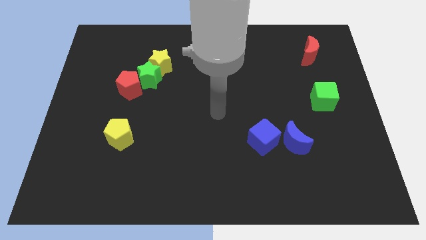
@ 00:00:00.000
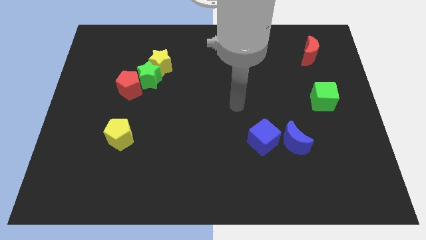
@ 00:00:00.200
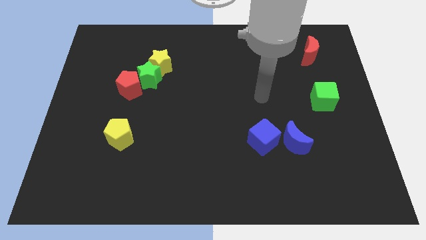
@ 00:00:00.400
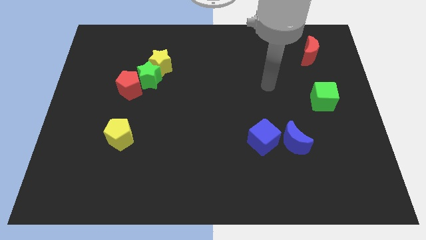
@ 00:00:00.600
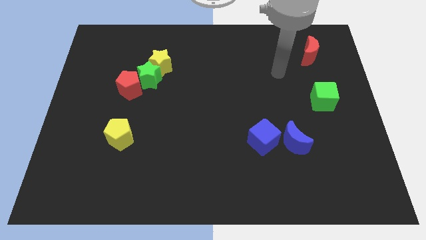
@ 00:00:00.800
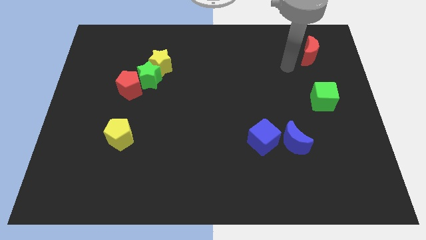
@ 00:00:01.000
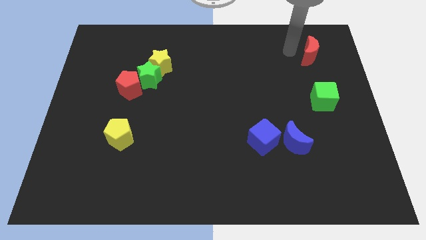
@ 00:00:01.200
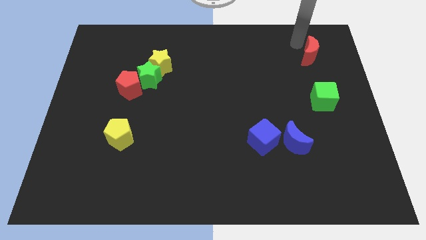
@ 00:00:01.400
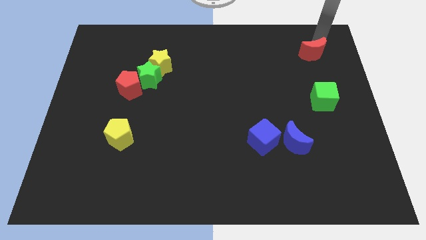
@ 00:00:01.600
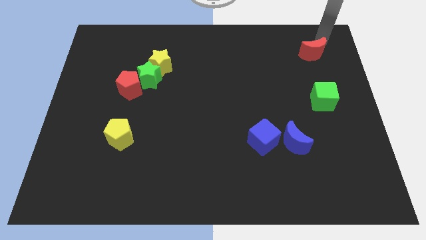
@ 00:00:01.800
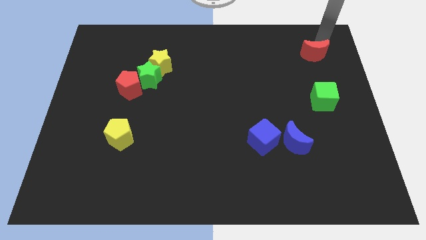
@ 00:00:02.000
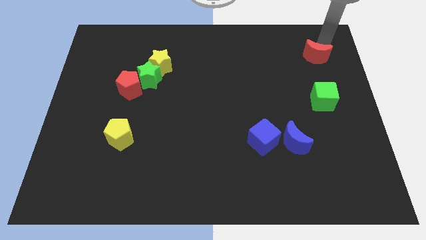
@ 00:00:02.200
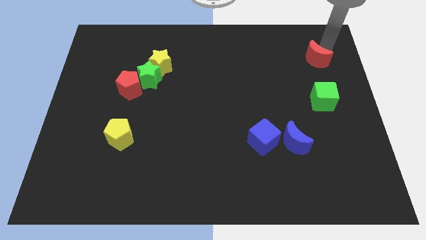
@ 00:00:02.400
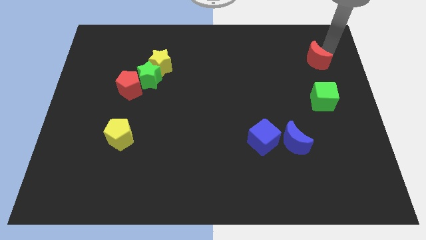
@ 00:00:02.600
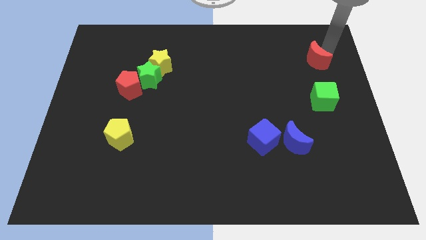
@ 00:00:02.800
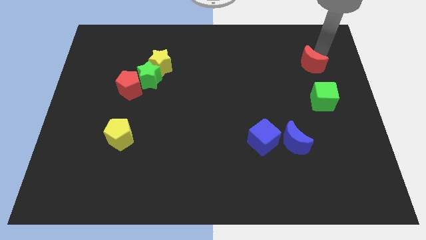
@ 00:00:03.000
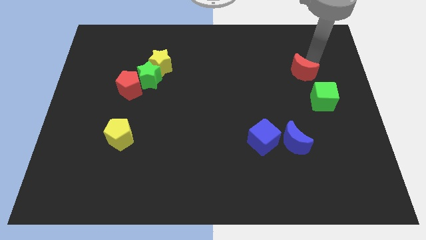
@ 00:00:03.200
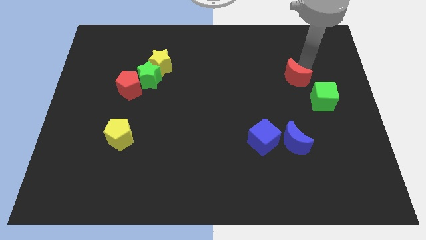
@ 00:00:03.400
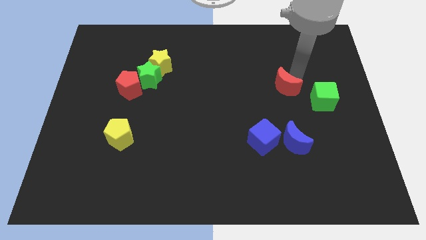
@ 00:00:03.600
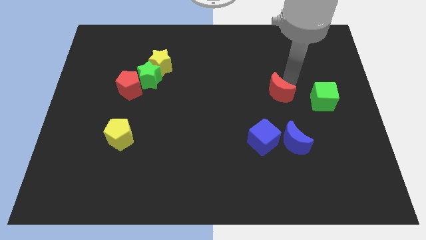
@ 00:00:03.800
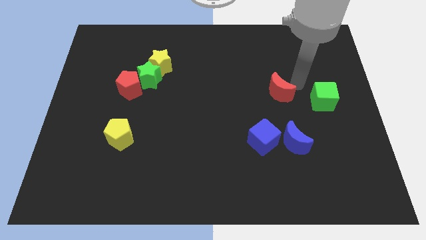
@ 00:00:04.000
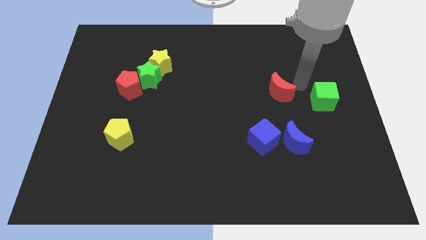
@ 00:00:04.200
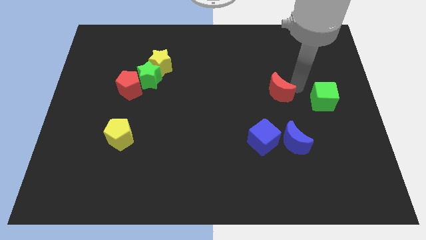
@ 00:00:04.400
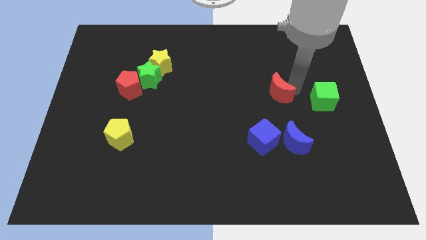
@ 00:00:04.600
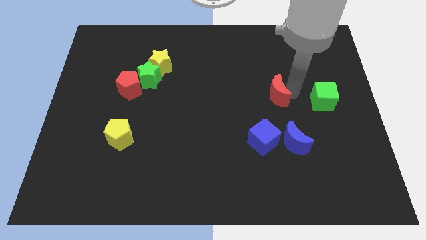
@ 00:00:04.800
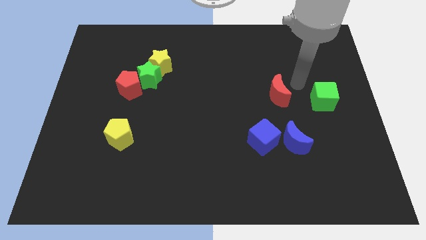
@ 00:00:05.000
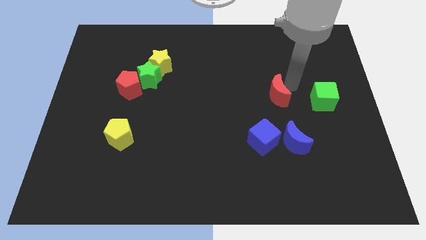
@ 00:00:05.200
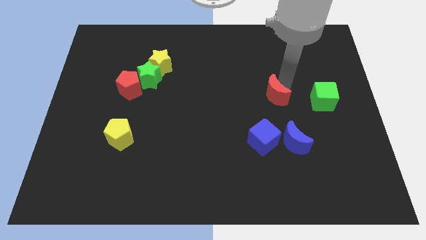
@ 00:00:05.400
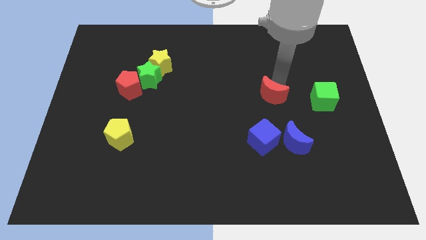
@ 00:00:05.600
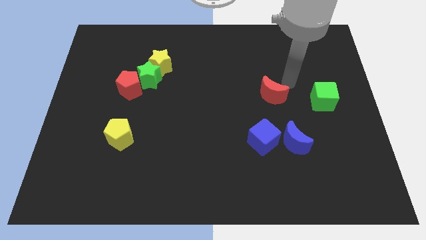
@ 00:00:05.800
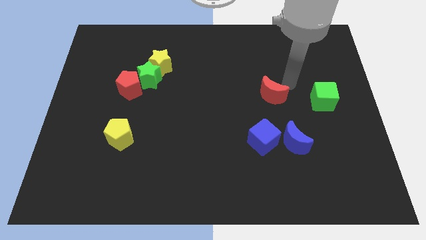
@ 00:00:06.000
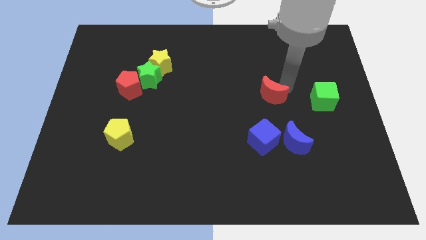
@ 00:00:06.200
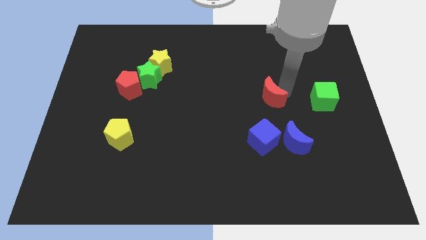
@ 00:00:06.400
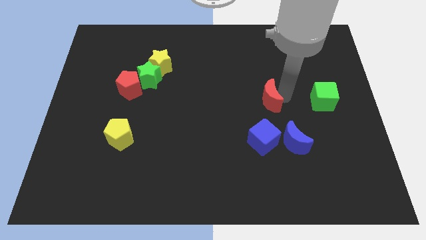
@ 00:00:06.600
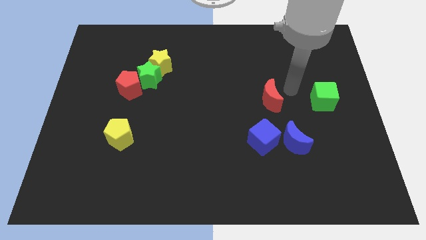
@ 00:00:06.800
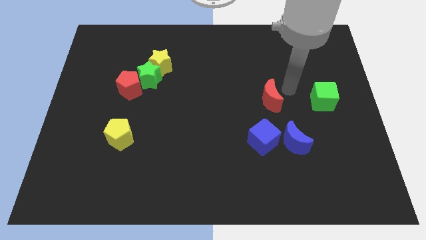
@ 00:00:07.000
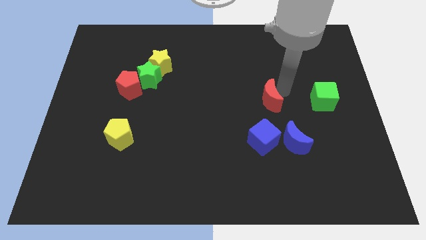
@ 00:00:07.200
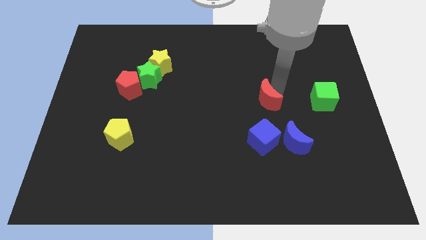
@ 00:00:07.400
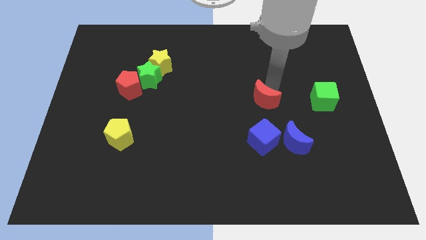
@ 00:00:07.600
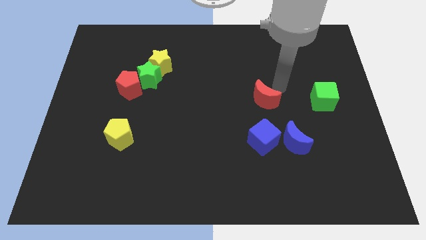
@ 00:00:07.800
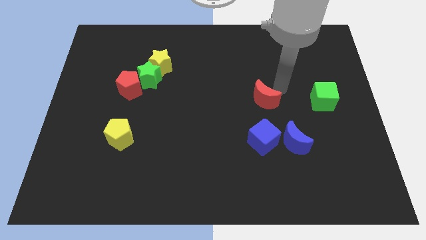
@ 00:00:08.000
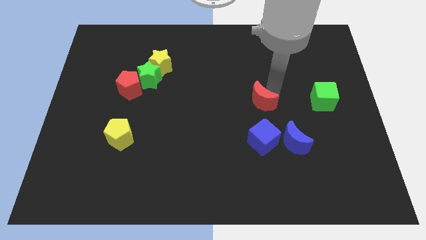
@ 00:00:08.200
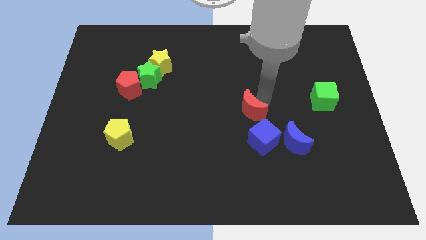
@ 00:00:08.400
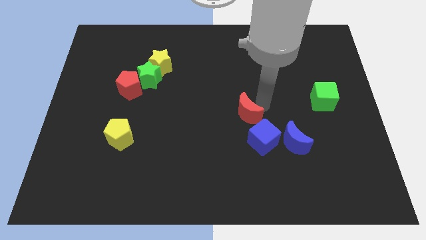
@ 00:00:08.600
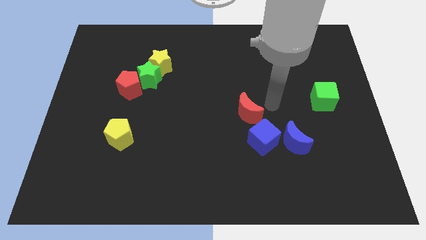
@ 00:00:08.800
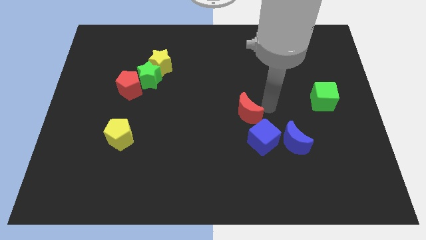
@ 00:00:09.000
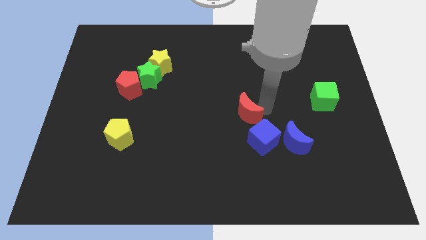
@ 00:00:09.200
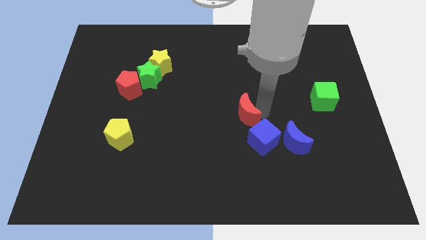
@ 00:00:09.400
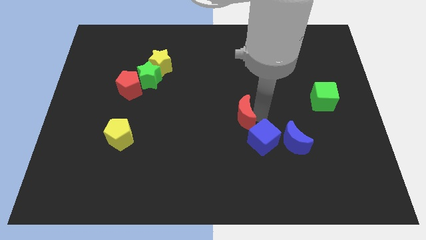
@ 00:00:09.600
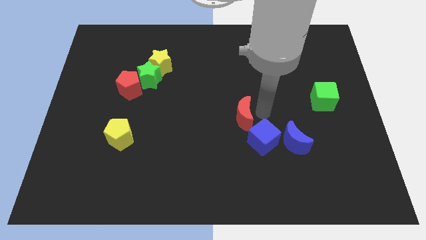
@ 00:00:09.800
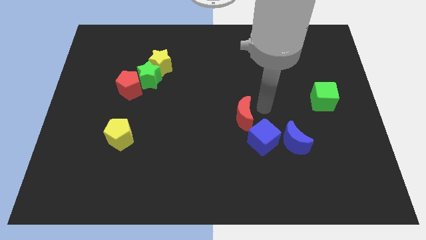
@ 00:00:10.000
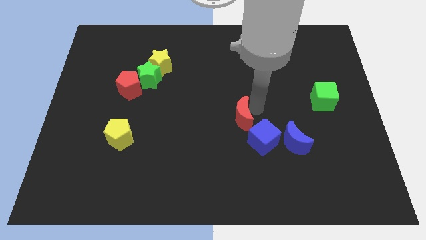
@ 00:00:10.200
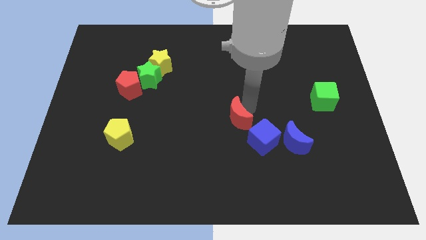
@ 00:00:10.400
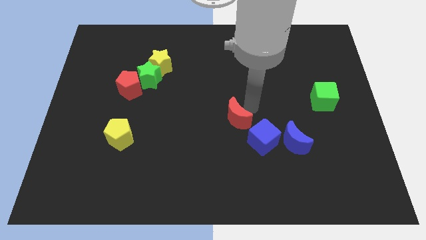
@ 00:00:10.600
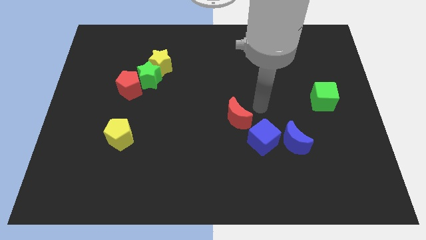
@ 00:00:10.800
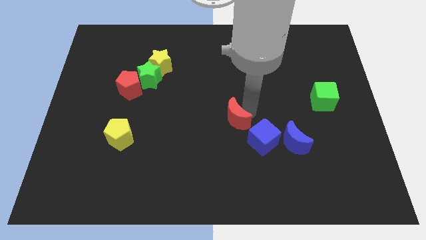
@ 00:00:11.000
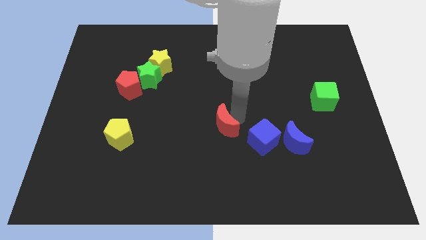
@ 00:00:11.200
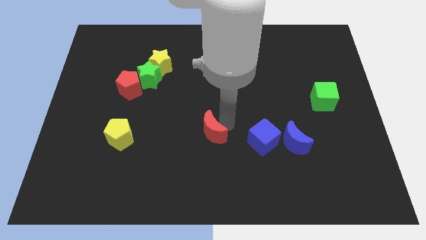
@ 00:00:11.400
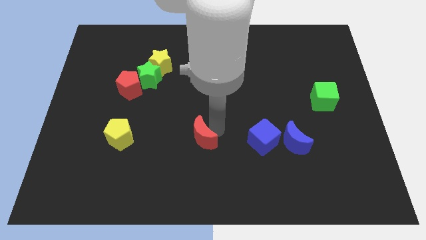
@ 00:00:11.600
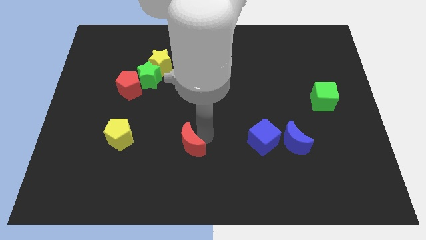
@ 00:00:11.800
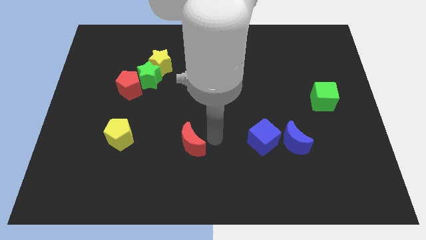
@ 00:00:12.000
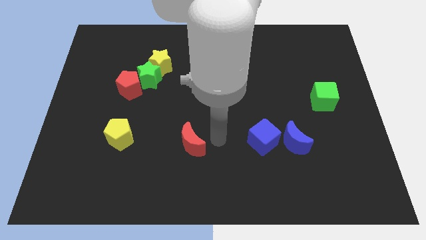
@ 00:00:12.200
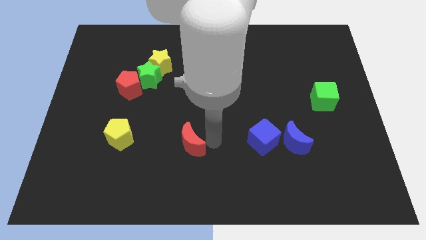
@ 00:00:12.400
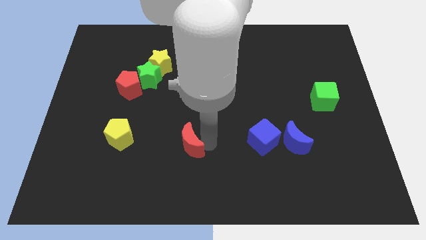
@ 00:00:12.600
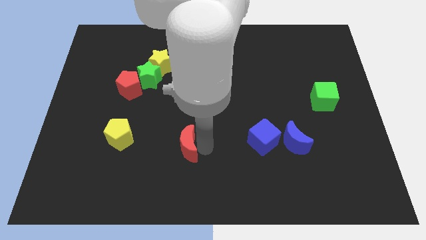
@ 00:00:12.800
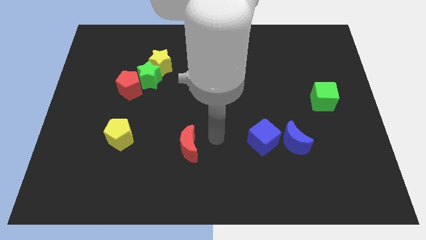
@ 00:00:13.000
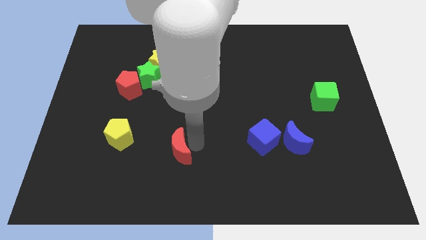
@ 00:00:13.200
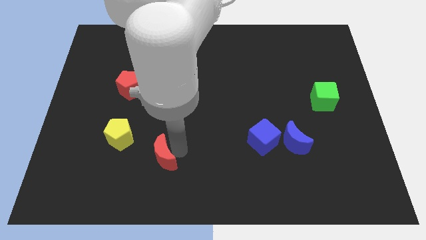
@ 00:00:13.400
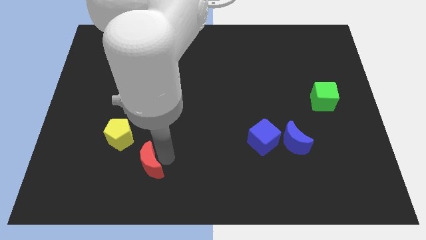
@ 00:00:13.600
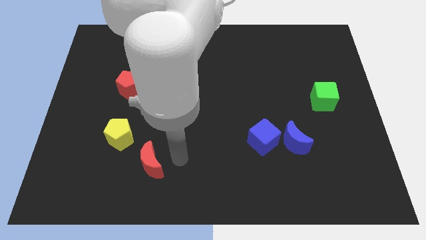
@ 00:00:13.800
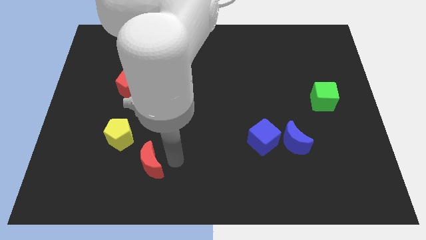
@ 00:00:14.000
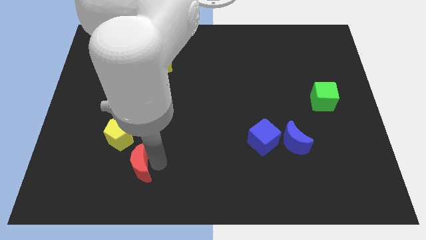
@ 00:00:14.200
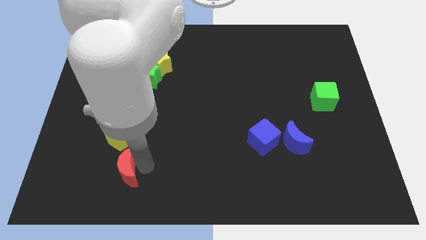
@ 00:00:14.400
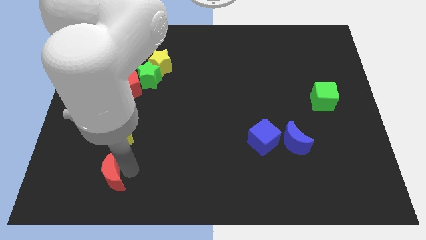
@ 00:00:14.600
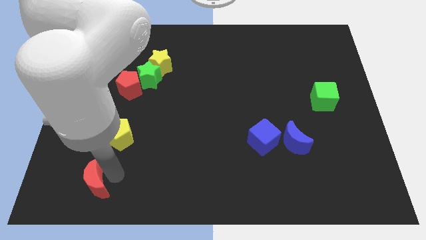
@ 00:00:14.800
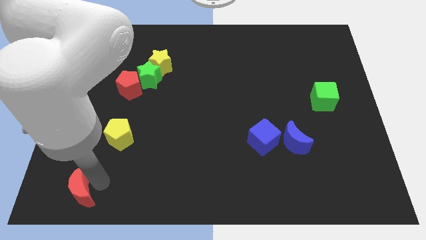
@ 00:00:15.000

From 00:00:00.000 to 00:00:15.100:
move the red moon to the bottom left corner
